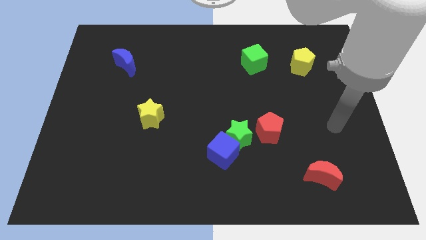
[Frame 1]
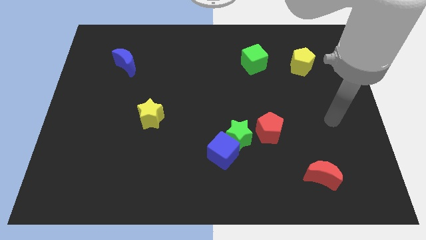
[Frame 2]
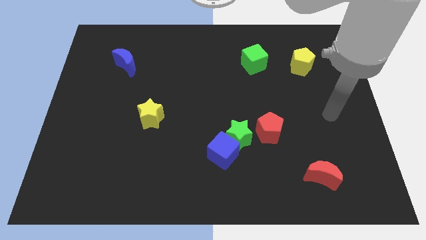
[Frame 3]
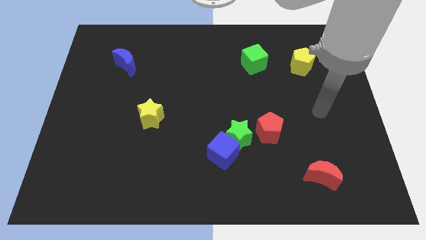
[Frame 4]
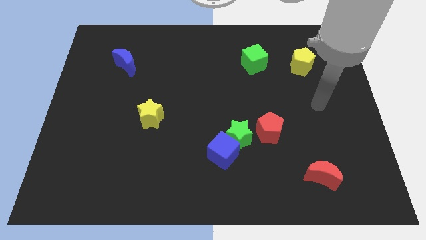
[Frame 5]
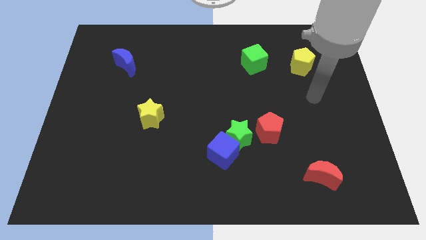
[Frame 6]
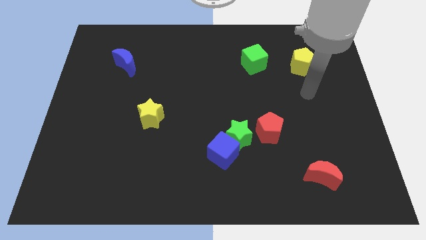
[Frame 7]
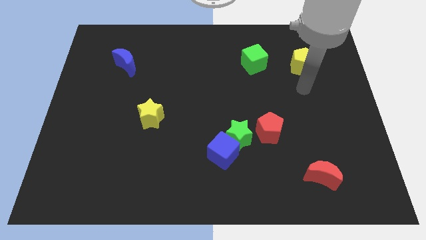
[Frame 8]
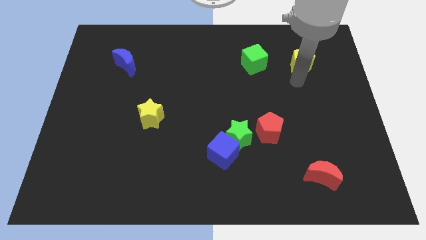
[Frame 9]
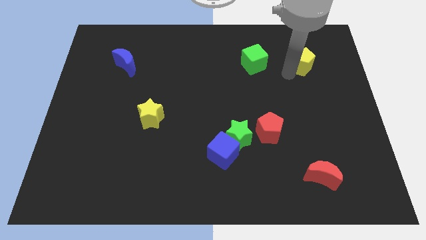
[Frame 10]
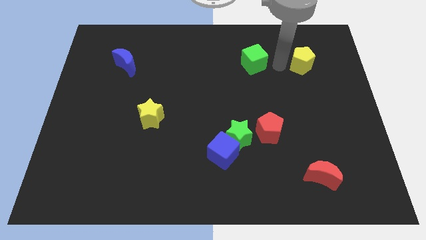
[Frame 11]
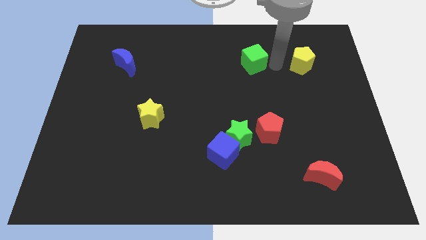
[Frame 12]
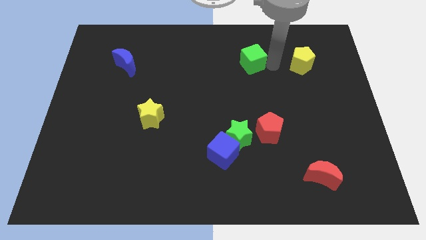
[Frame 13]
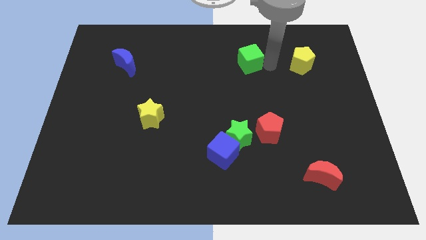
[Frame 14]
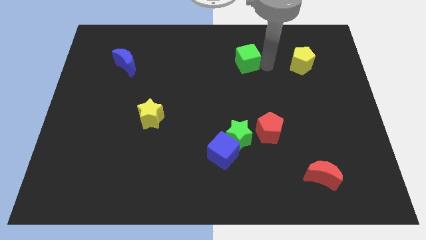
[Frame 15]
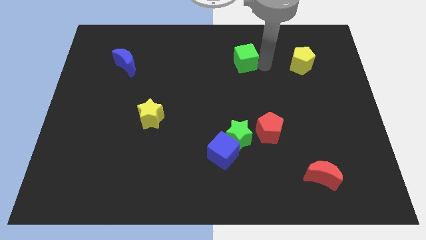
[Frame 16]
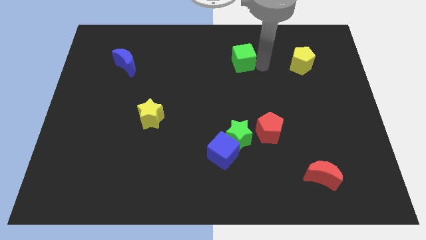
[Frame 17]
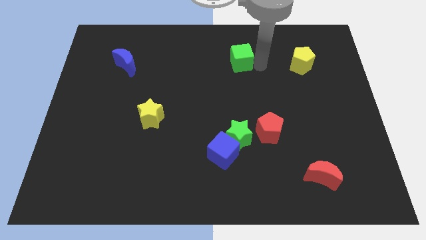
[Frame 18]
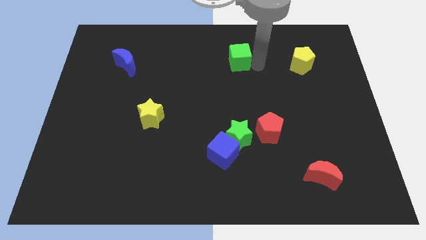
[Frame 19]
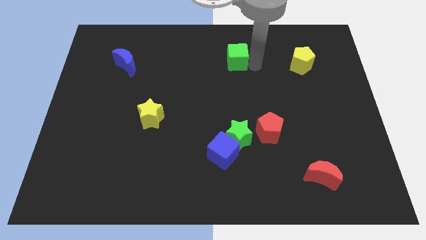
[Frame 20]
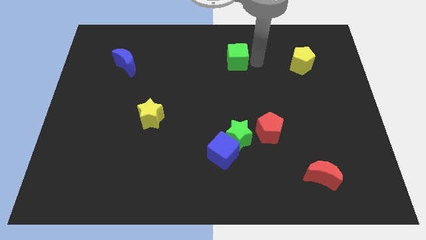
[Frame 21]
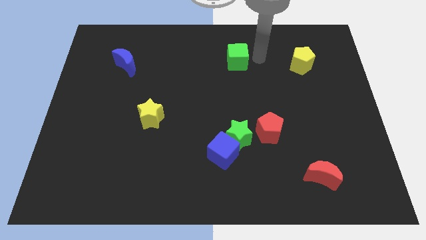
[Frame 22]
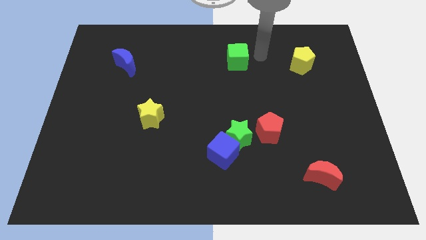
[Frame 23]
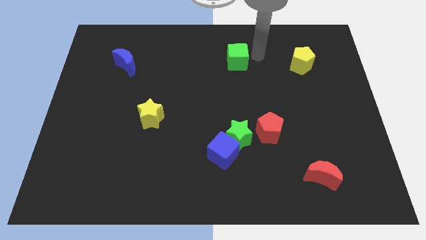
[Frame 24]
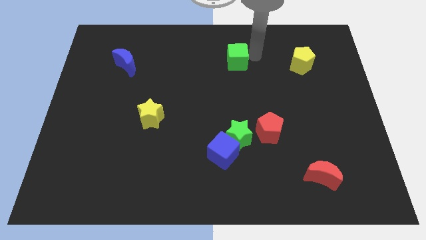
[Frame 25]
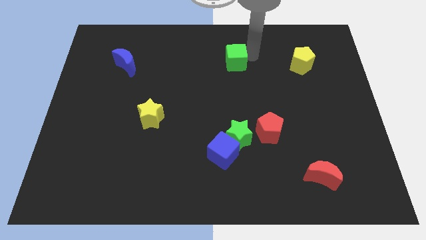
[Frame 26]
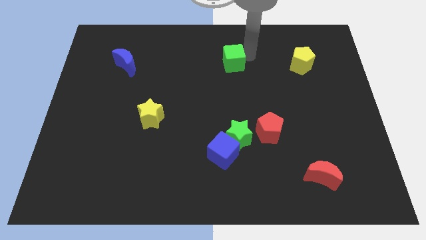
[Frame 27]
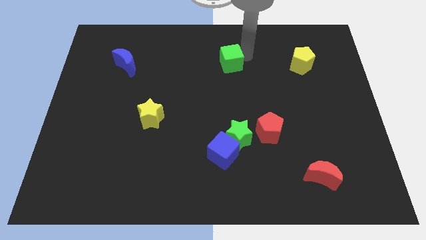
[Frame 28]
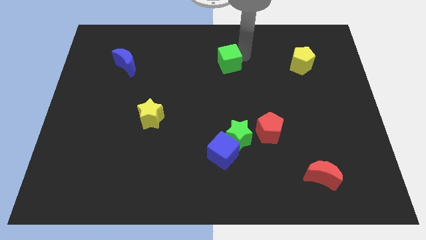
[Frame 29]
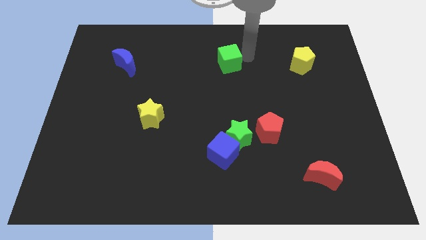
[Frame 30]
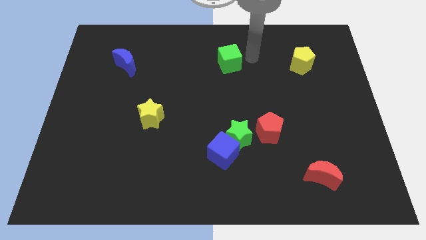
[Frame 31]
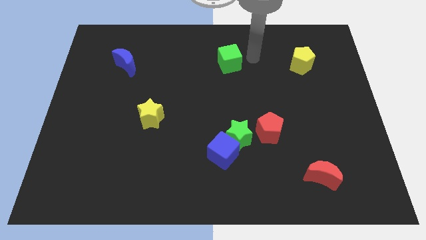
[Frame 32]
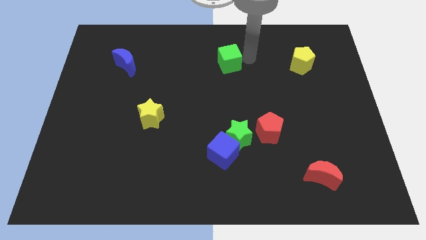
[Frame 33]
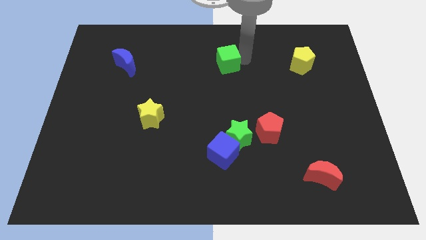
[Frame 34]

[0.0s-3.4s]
slide the green cube left somewhat

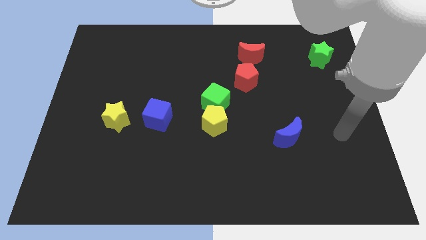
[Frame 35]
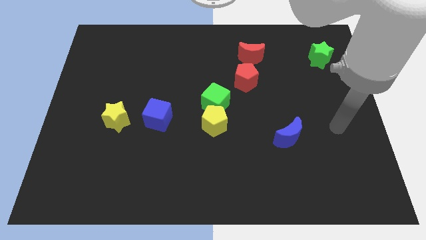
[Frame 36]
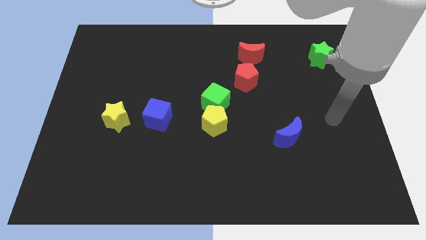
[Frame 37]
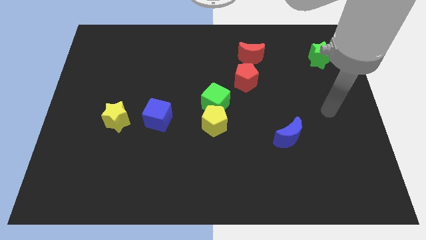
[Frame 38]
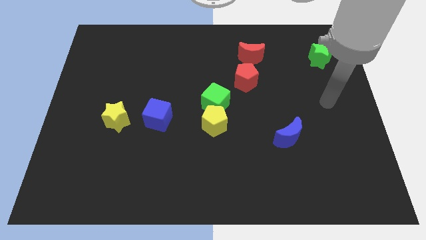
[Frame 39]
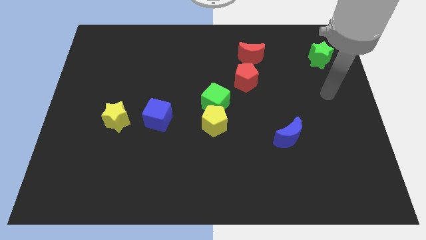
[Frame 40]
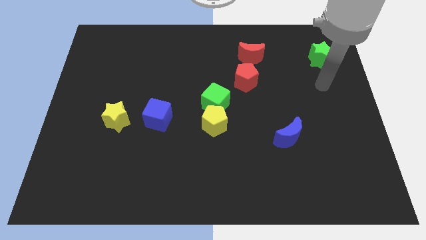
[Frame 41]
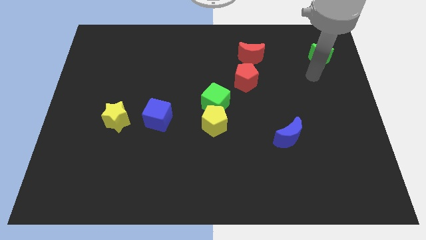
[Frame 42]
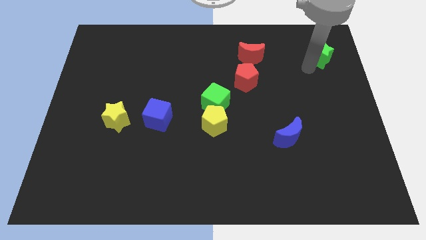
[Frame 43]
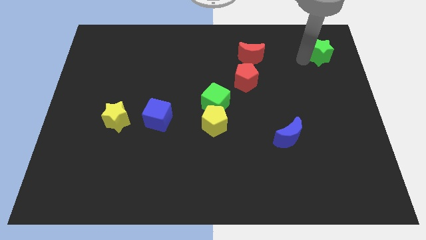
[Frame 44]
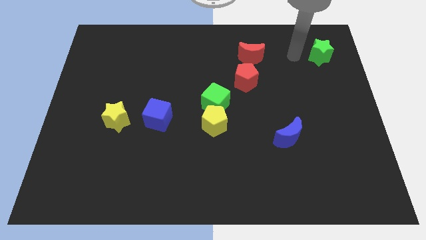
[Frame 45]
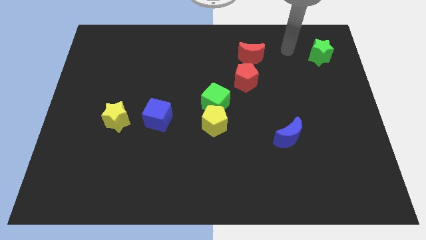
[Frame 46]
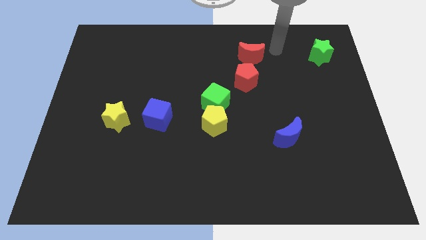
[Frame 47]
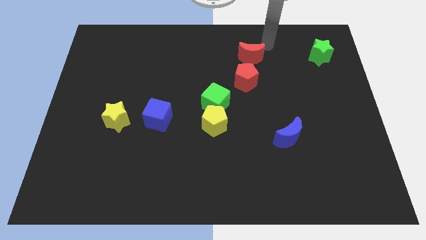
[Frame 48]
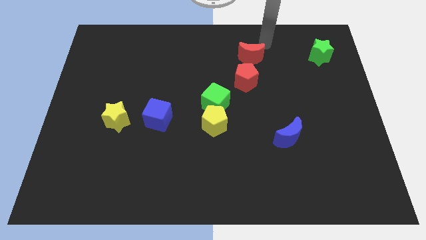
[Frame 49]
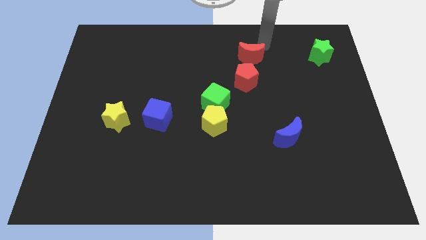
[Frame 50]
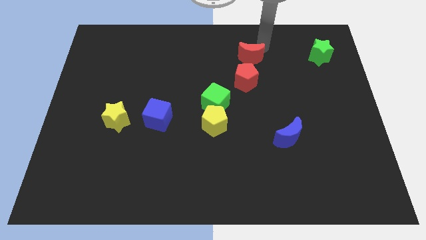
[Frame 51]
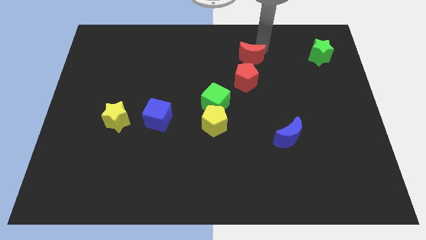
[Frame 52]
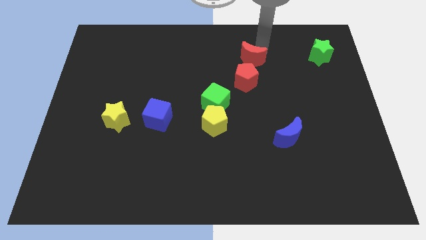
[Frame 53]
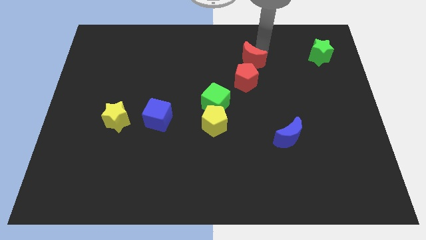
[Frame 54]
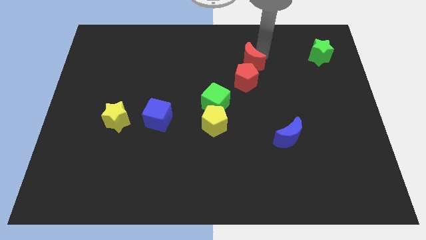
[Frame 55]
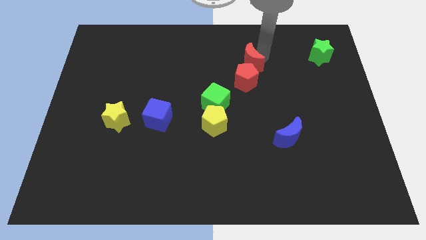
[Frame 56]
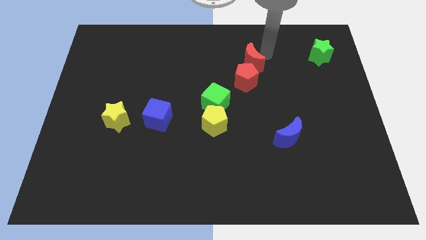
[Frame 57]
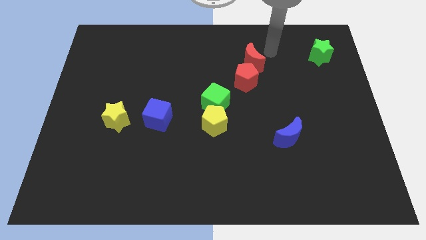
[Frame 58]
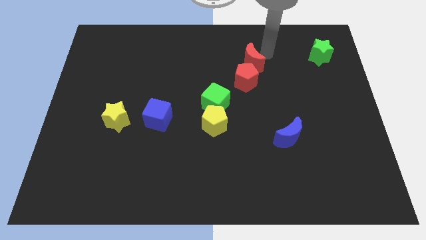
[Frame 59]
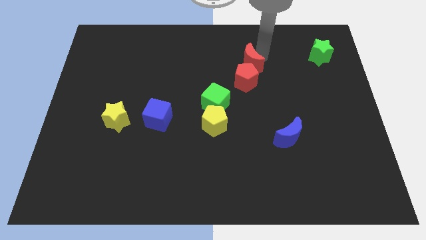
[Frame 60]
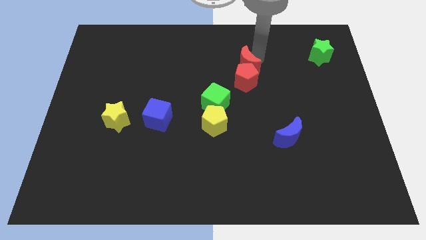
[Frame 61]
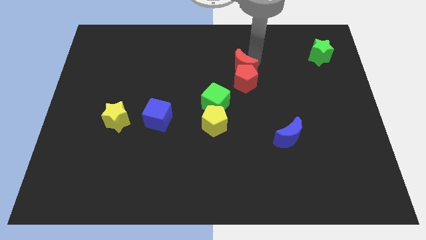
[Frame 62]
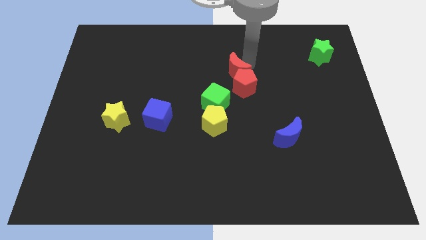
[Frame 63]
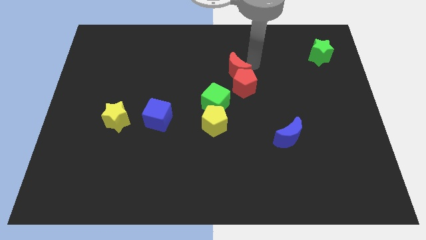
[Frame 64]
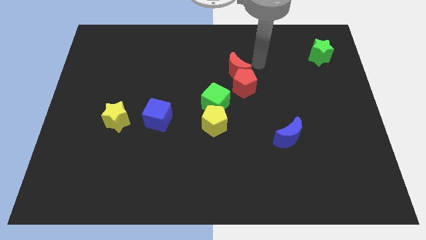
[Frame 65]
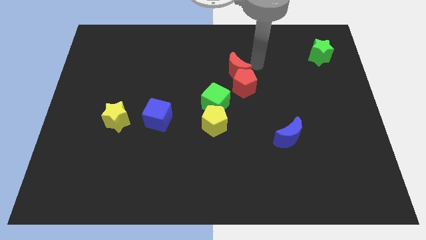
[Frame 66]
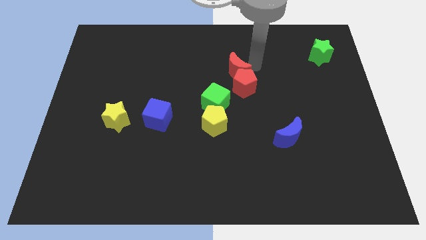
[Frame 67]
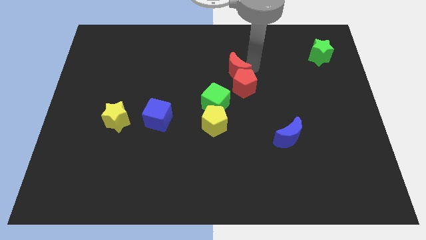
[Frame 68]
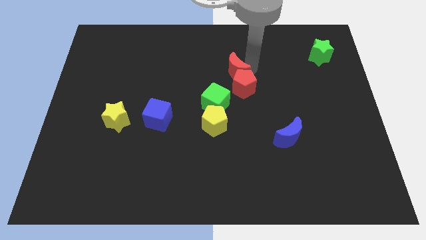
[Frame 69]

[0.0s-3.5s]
move the red moon slightly down and left diagonally

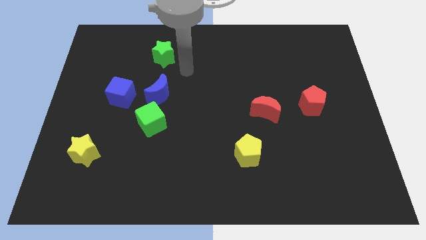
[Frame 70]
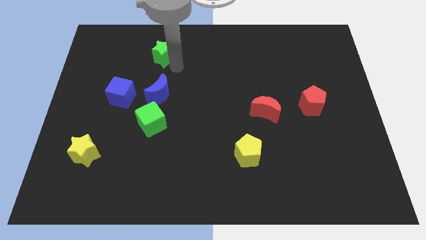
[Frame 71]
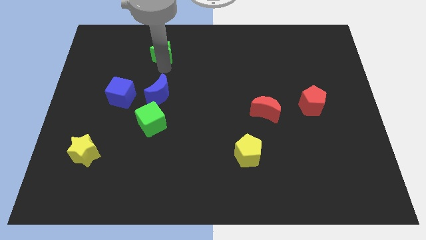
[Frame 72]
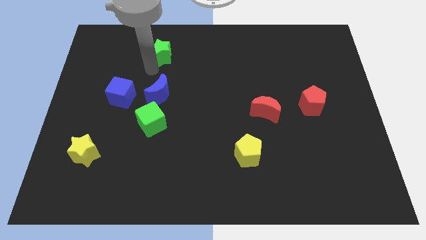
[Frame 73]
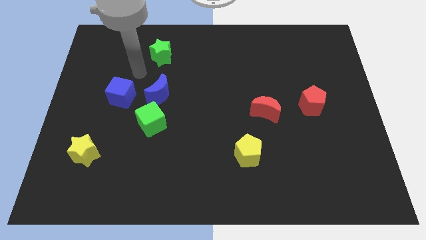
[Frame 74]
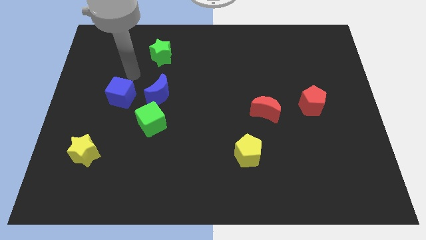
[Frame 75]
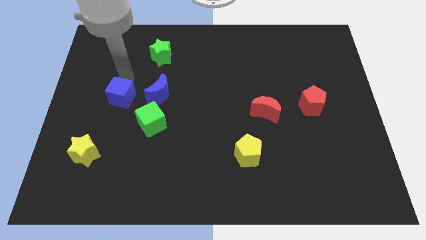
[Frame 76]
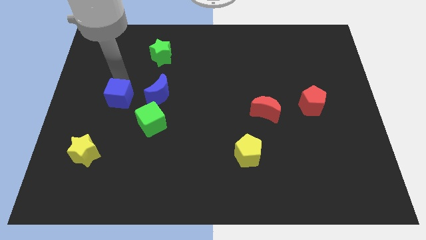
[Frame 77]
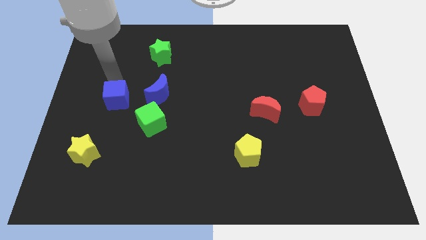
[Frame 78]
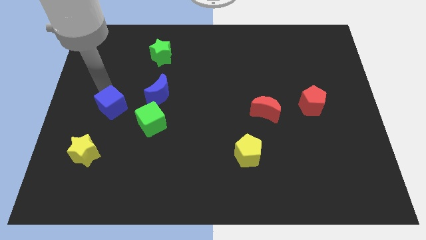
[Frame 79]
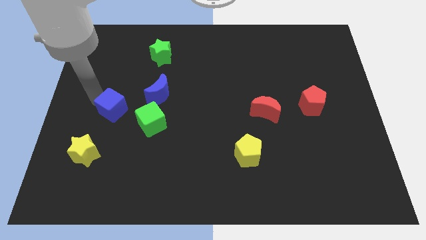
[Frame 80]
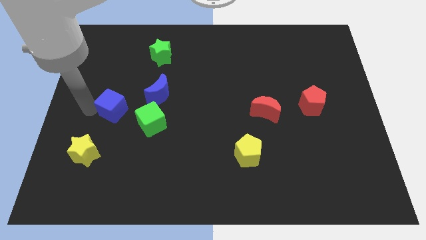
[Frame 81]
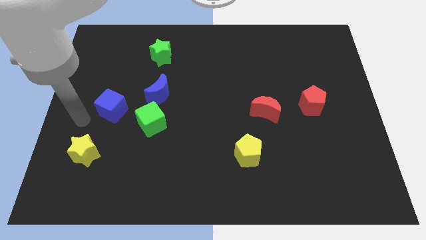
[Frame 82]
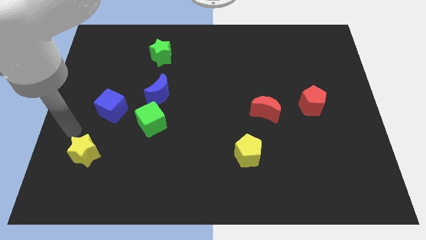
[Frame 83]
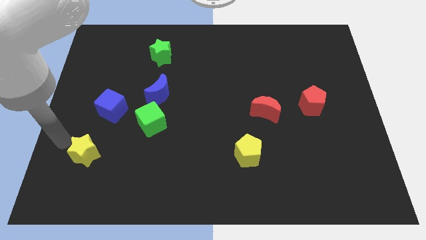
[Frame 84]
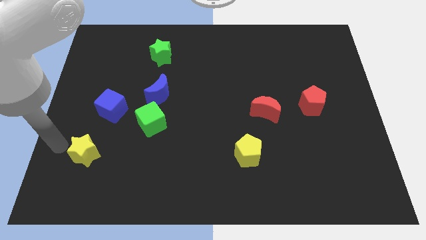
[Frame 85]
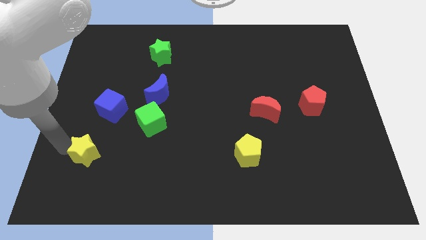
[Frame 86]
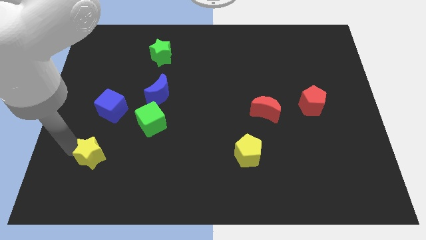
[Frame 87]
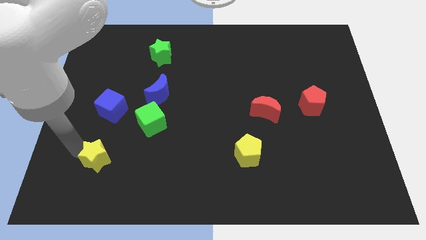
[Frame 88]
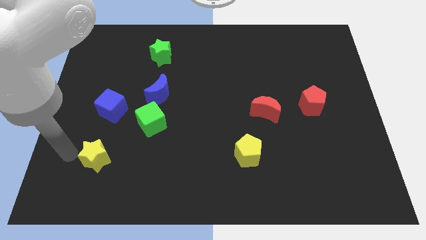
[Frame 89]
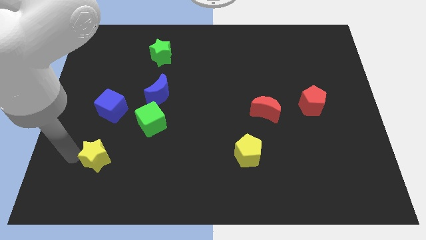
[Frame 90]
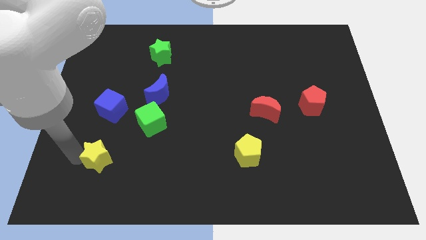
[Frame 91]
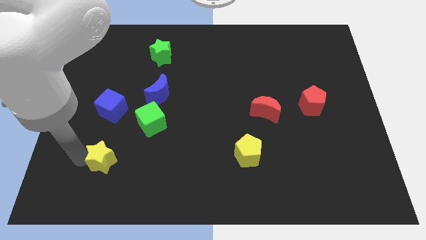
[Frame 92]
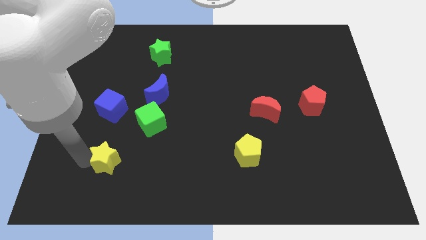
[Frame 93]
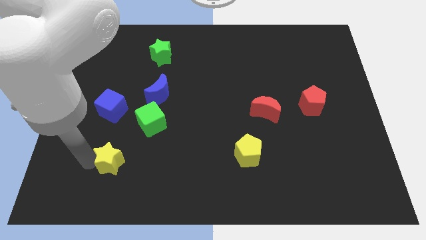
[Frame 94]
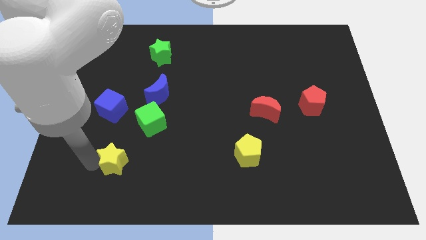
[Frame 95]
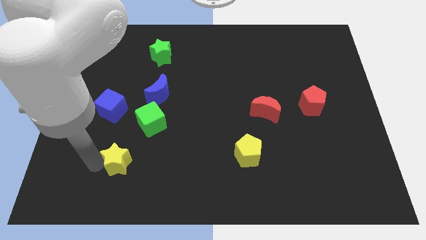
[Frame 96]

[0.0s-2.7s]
move the yellow star right slightly
